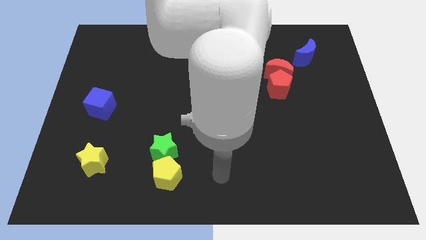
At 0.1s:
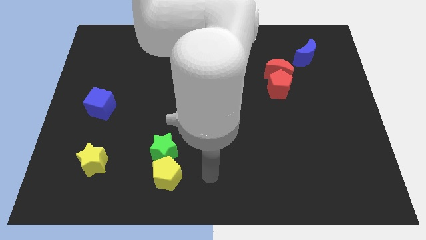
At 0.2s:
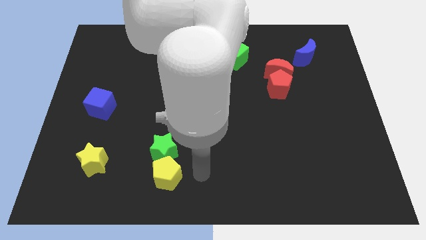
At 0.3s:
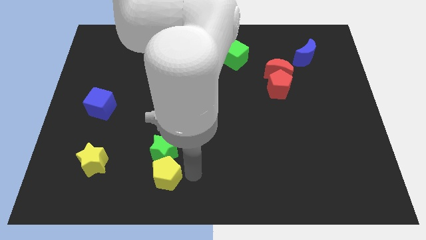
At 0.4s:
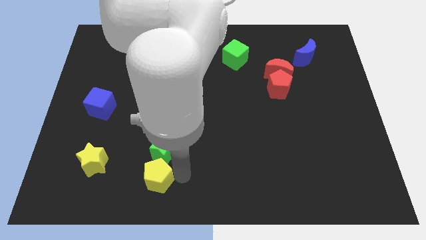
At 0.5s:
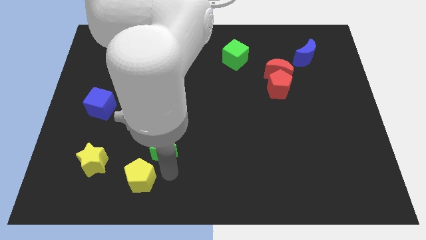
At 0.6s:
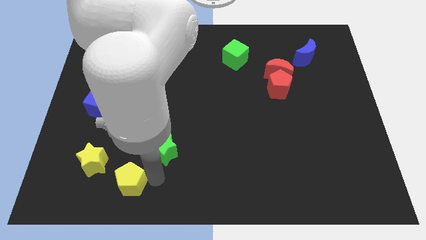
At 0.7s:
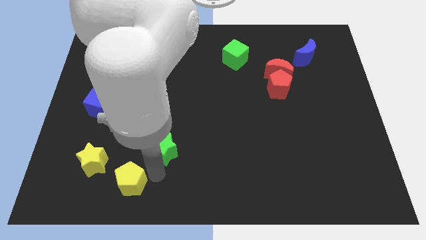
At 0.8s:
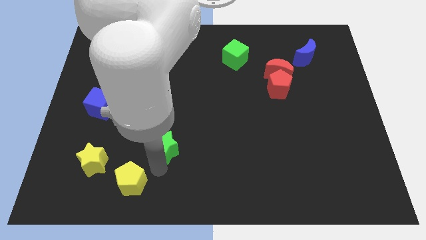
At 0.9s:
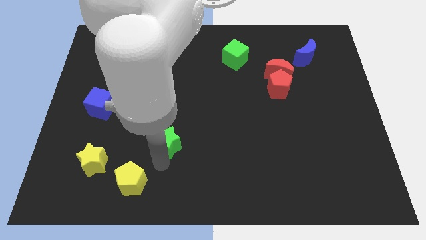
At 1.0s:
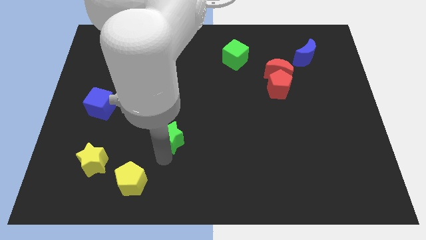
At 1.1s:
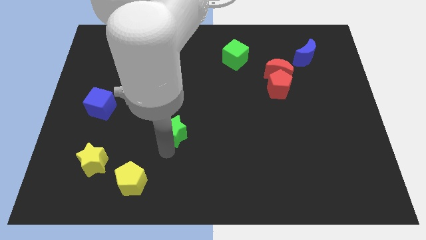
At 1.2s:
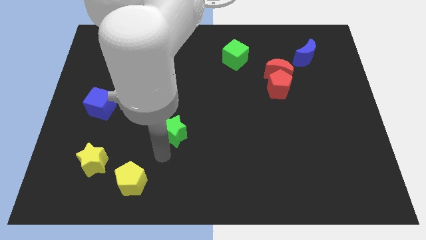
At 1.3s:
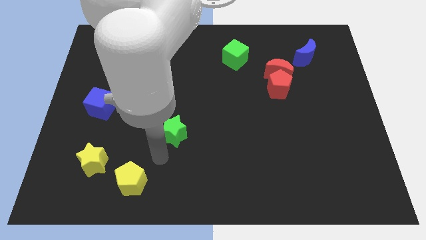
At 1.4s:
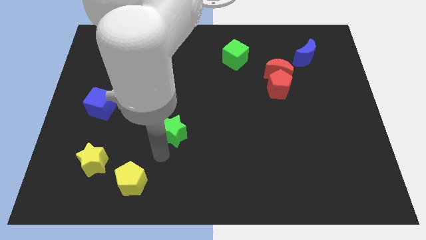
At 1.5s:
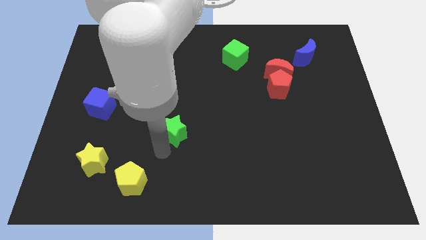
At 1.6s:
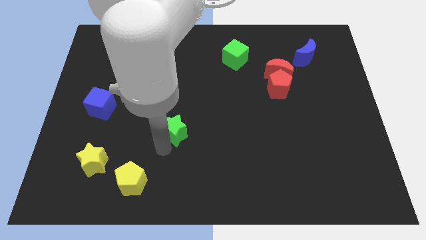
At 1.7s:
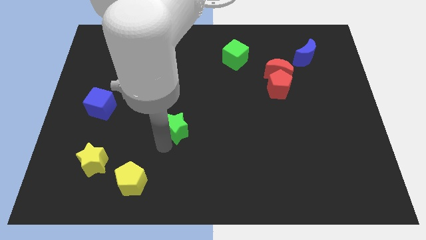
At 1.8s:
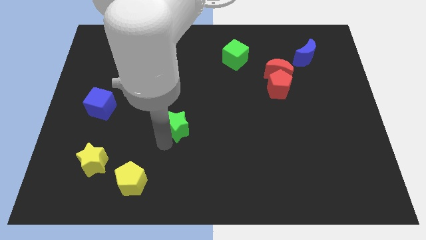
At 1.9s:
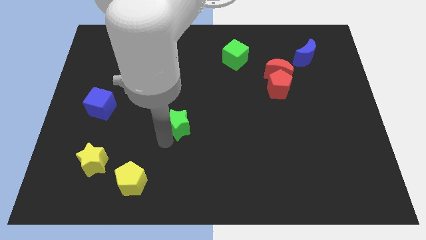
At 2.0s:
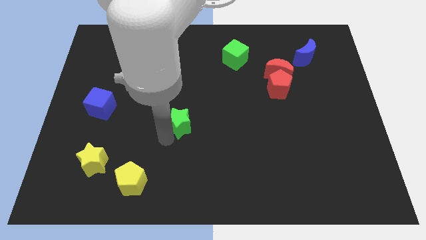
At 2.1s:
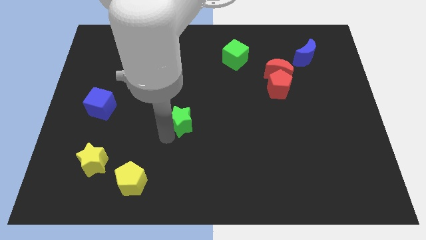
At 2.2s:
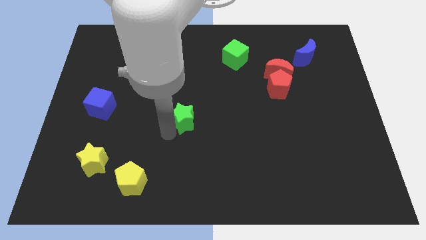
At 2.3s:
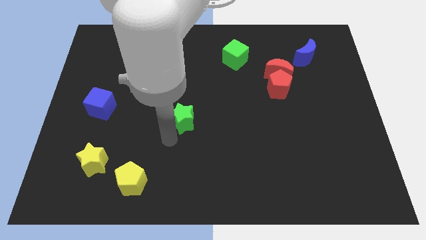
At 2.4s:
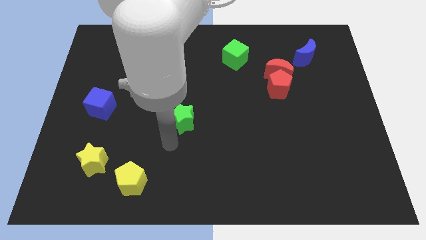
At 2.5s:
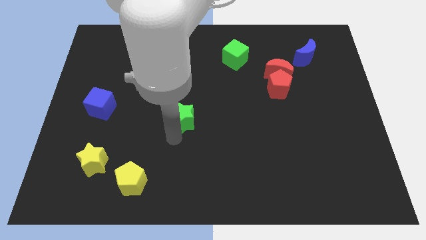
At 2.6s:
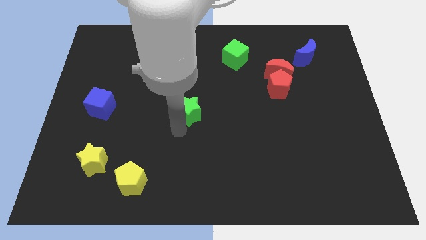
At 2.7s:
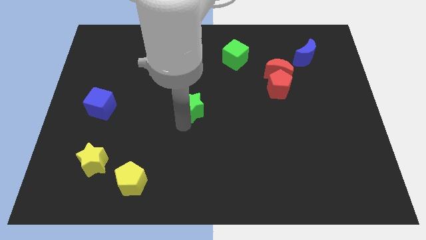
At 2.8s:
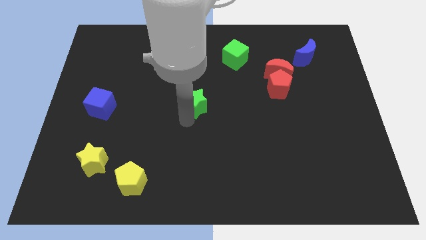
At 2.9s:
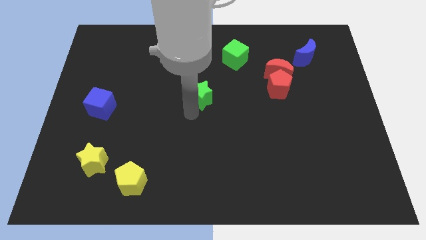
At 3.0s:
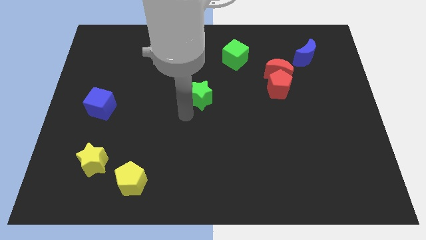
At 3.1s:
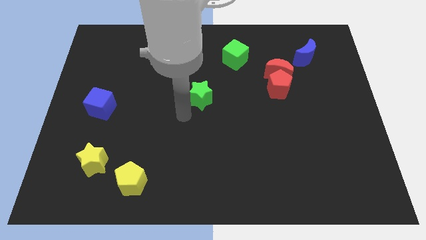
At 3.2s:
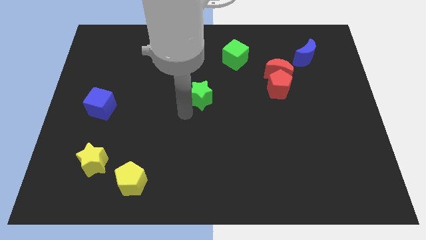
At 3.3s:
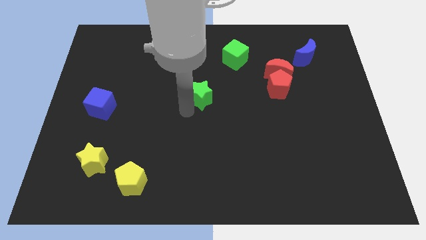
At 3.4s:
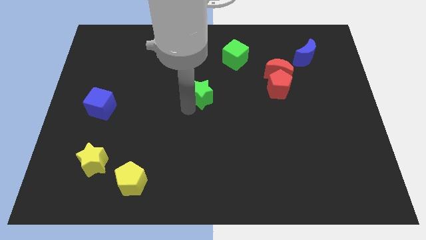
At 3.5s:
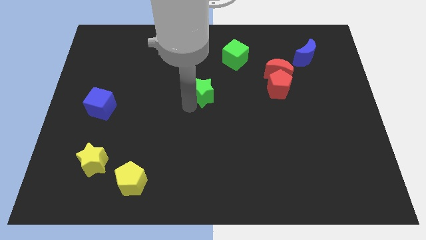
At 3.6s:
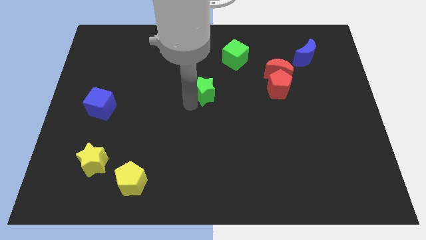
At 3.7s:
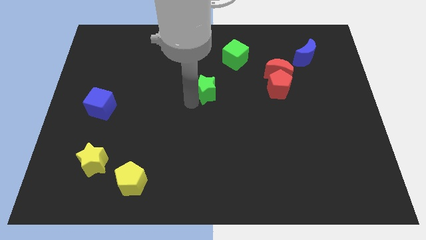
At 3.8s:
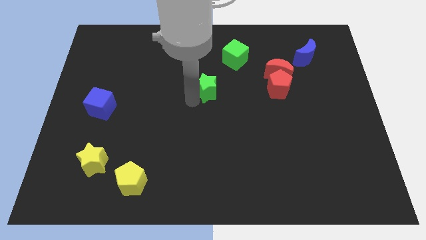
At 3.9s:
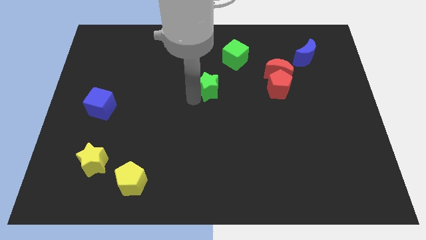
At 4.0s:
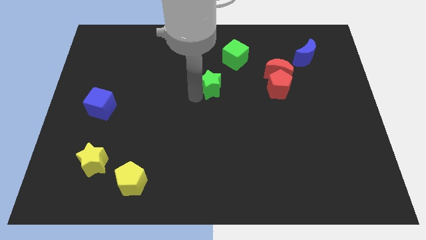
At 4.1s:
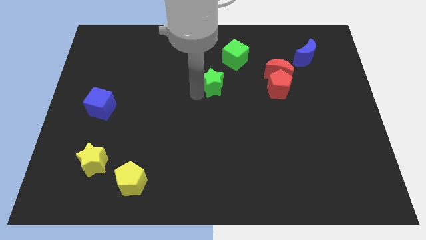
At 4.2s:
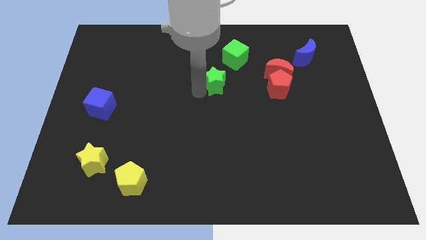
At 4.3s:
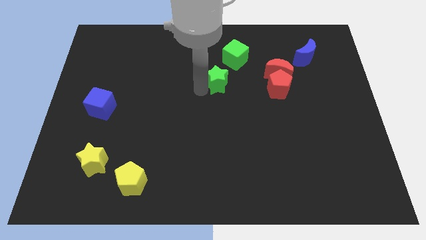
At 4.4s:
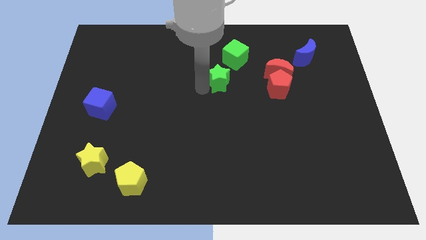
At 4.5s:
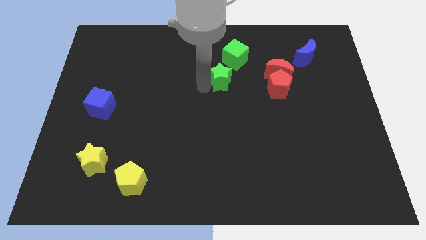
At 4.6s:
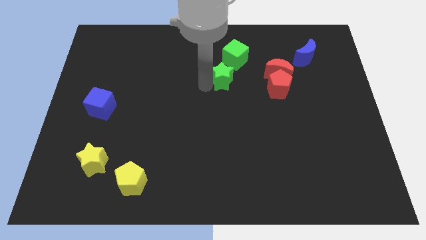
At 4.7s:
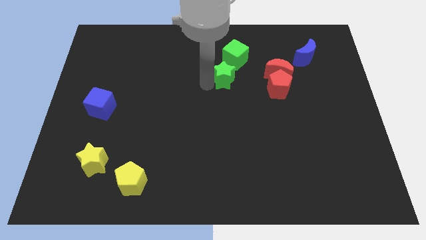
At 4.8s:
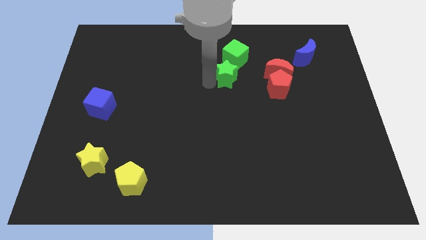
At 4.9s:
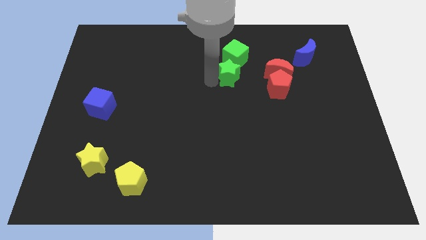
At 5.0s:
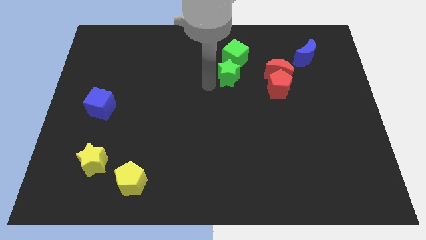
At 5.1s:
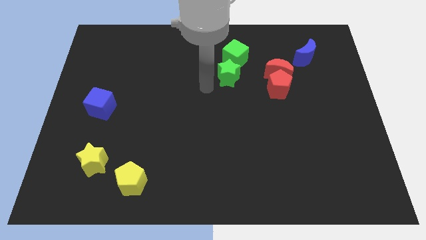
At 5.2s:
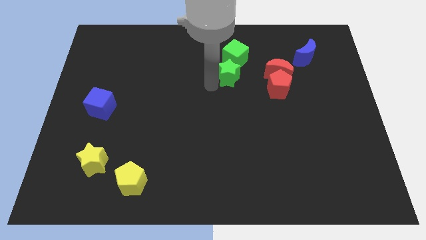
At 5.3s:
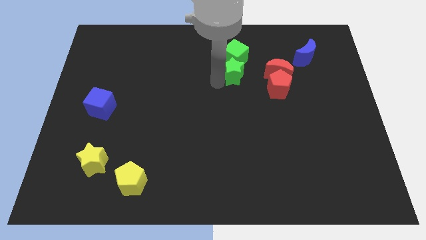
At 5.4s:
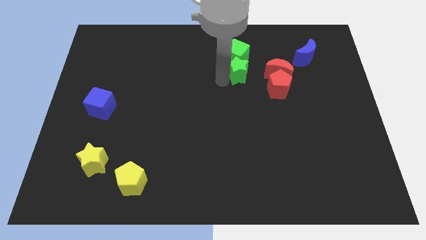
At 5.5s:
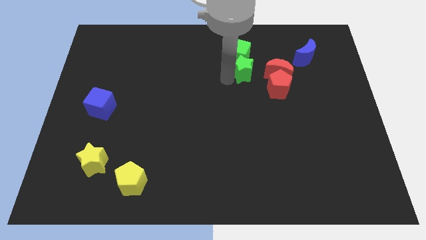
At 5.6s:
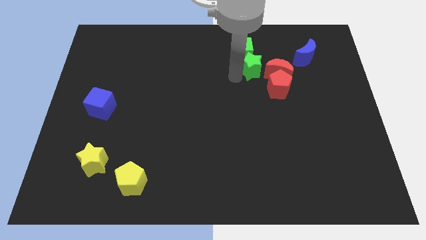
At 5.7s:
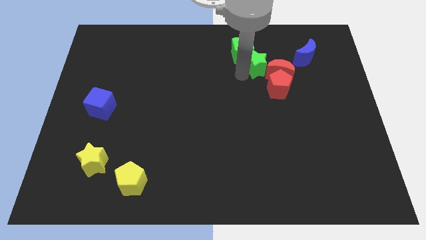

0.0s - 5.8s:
put the green star just left of the blue moon

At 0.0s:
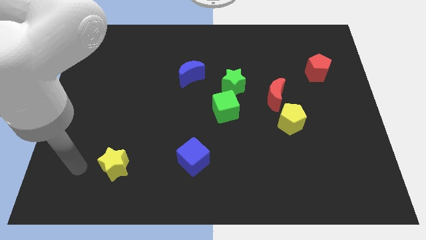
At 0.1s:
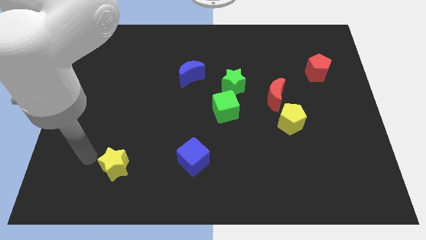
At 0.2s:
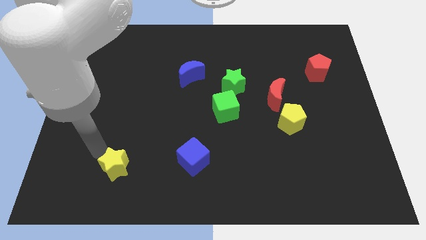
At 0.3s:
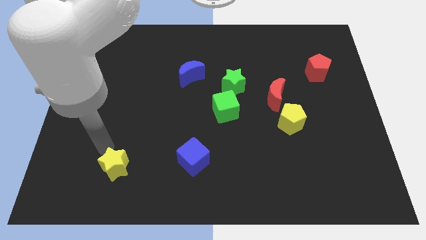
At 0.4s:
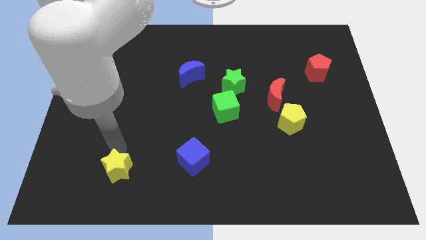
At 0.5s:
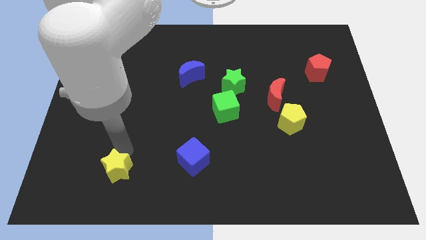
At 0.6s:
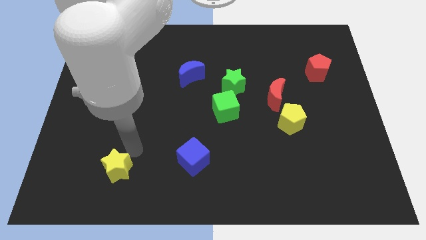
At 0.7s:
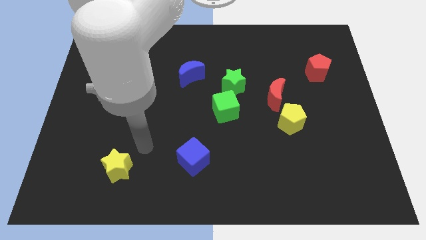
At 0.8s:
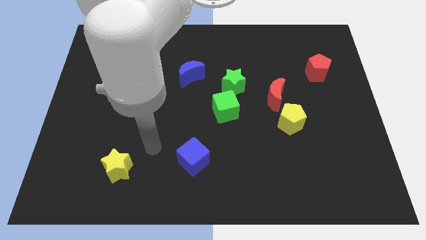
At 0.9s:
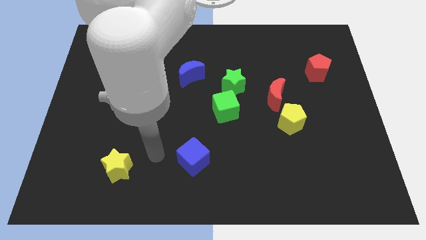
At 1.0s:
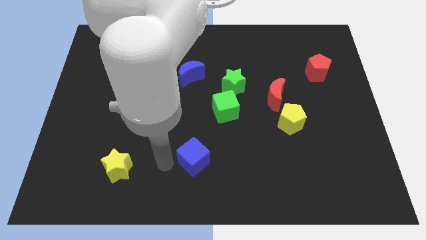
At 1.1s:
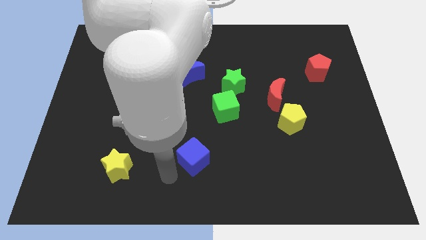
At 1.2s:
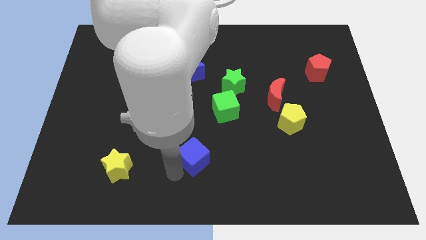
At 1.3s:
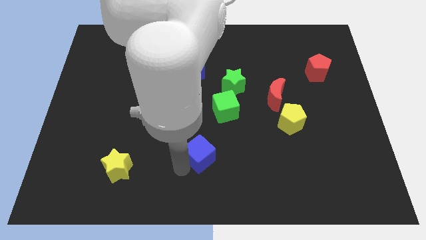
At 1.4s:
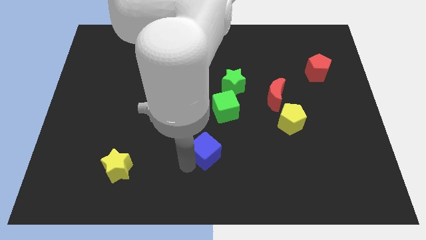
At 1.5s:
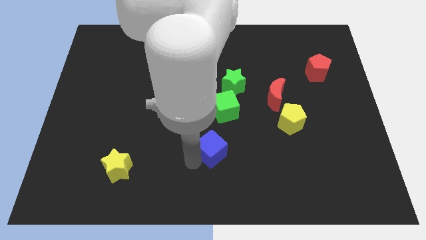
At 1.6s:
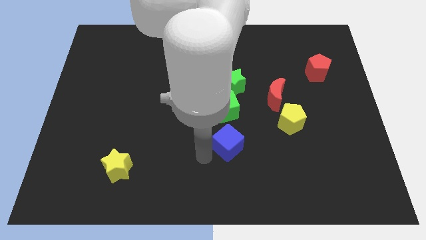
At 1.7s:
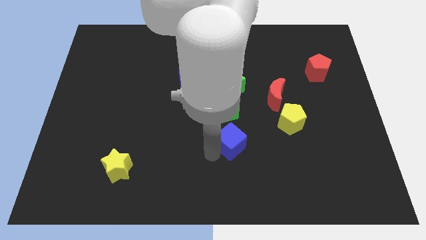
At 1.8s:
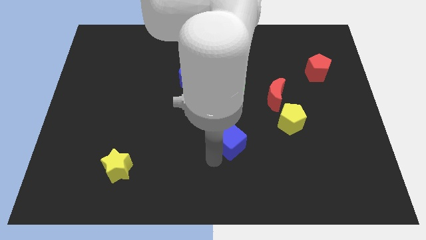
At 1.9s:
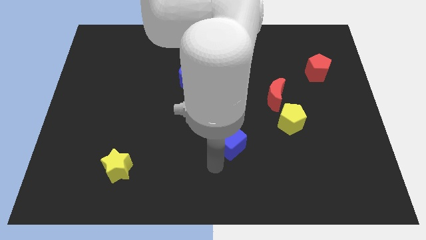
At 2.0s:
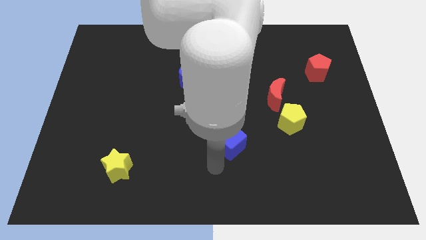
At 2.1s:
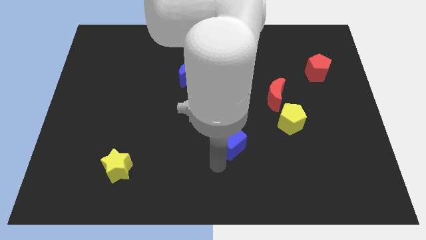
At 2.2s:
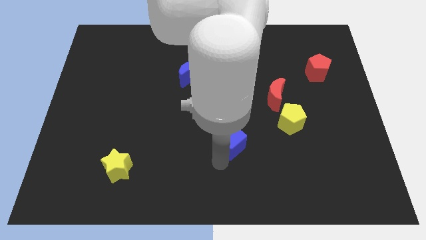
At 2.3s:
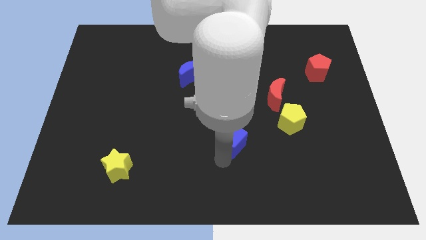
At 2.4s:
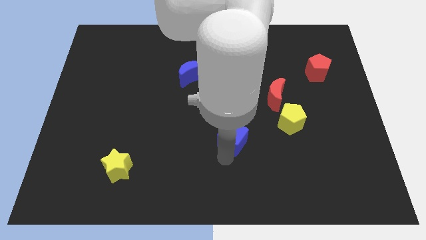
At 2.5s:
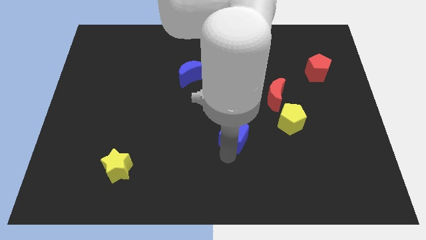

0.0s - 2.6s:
push the blue cube left of the yellow pentagon
